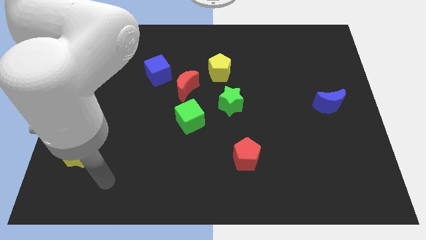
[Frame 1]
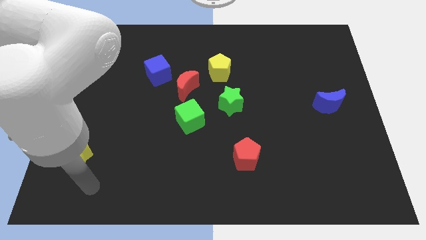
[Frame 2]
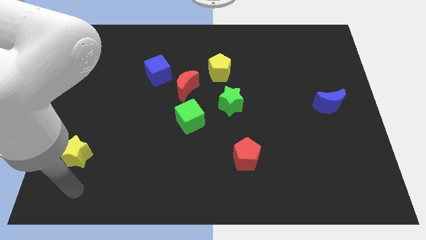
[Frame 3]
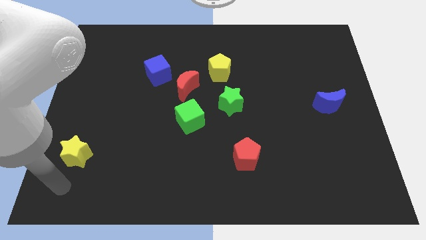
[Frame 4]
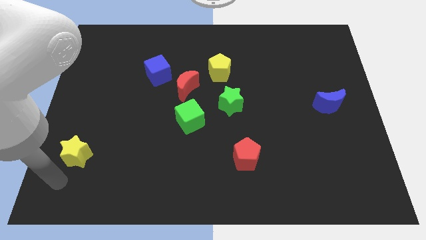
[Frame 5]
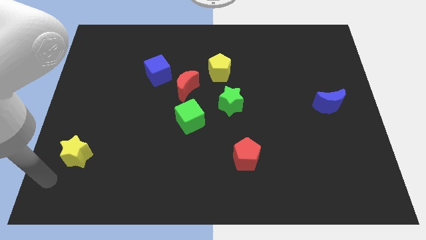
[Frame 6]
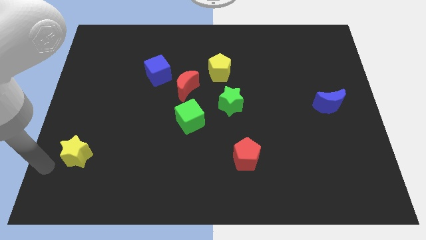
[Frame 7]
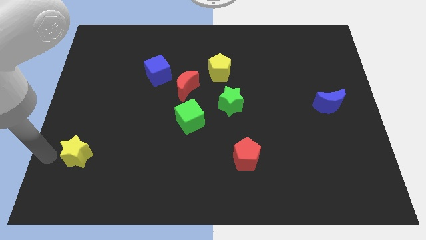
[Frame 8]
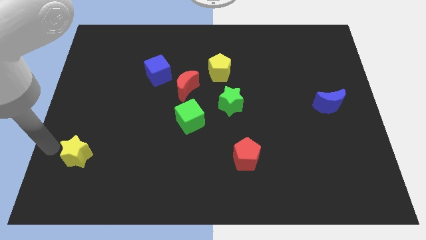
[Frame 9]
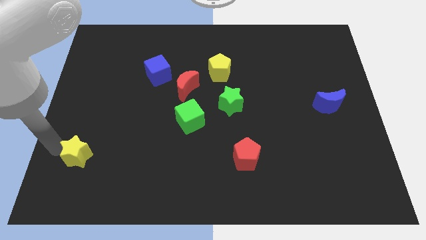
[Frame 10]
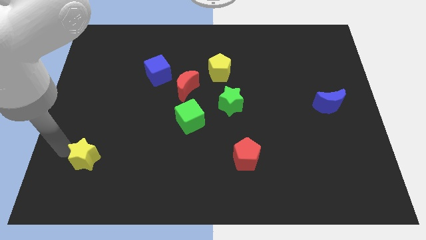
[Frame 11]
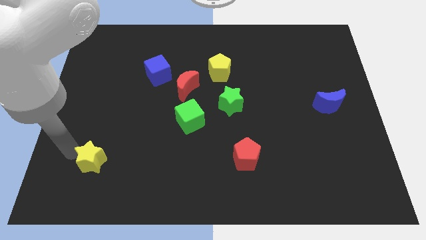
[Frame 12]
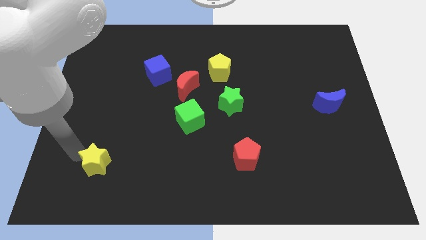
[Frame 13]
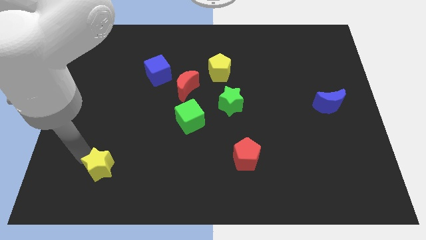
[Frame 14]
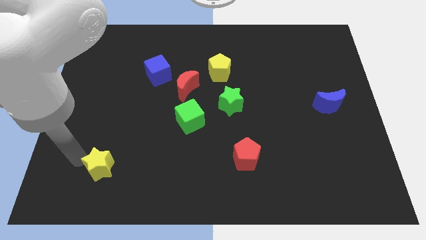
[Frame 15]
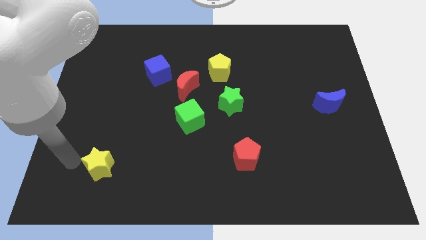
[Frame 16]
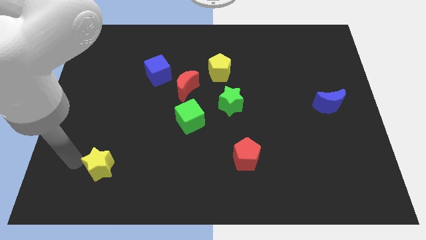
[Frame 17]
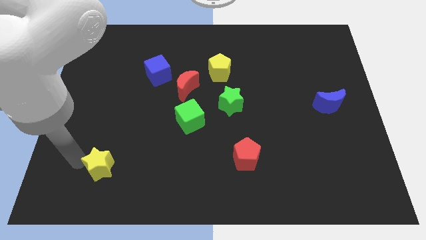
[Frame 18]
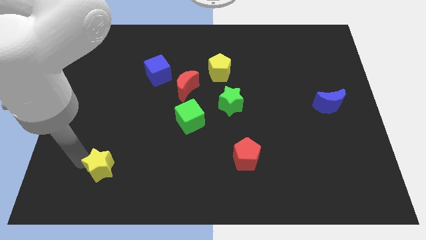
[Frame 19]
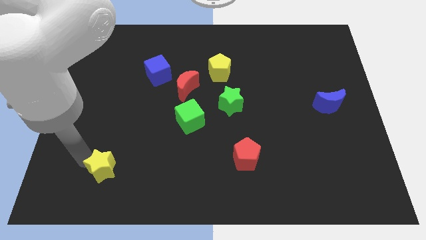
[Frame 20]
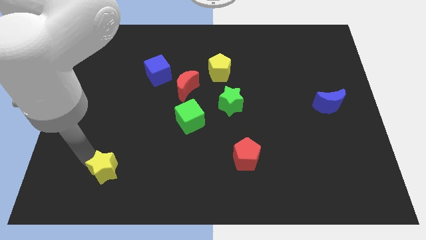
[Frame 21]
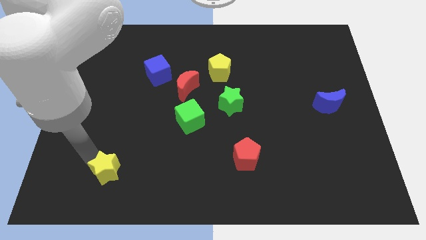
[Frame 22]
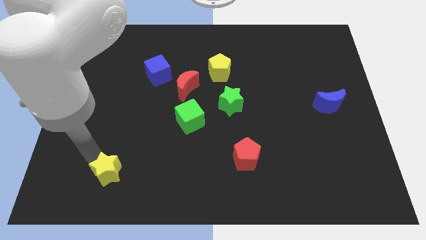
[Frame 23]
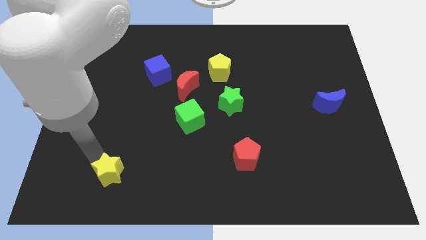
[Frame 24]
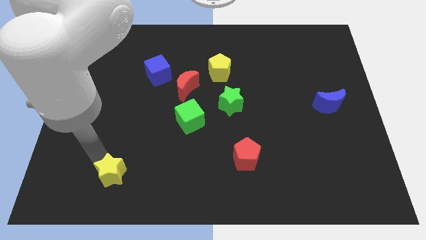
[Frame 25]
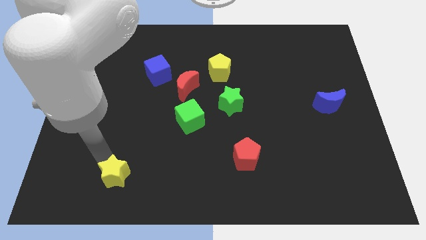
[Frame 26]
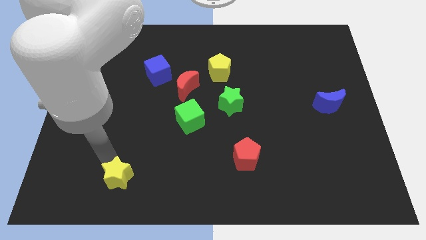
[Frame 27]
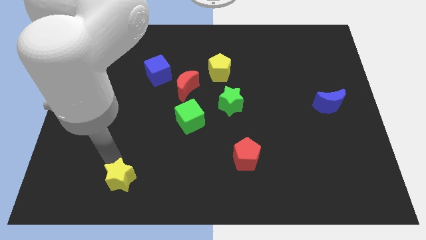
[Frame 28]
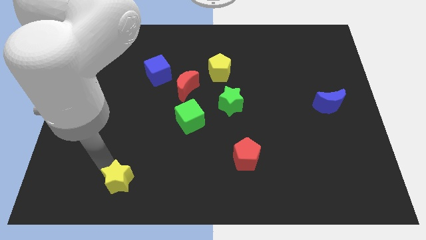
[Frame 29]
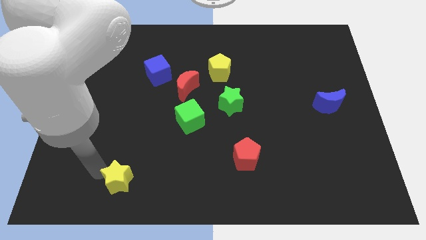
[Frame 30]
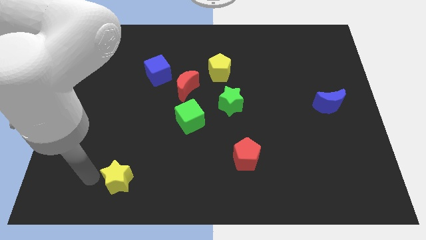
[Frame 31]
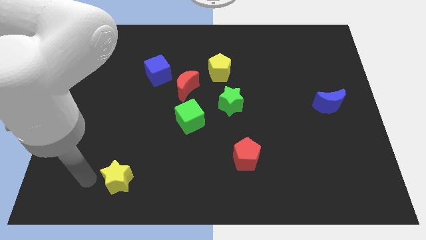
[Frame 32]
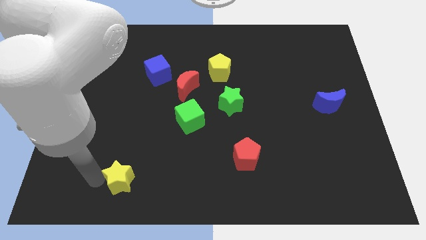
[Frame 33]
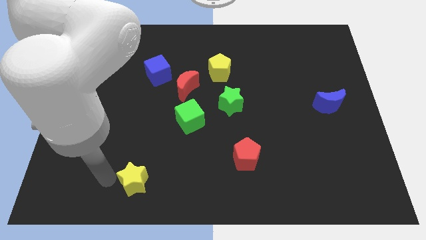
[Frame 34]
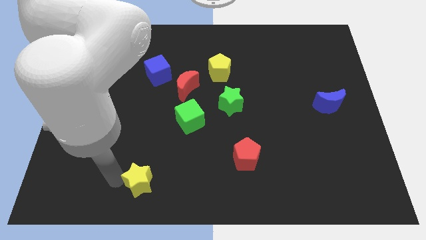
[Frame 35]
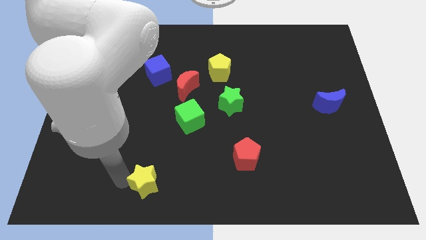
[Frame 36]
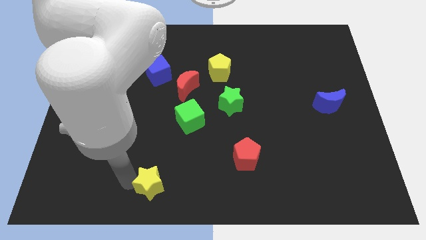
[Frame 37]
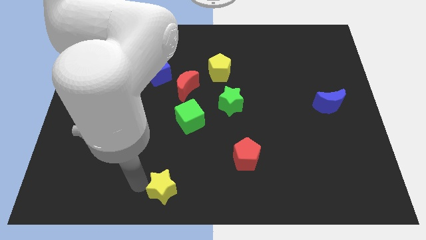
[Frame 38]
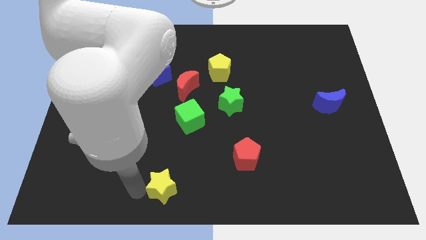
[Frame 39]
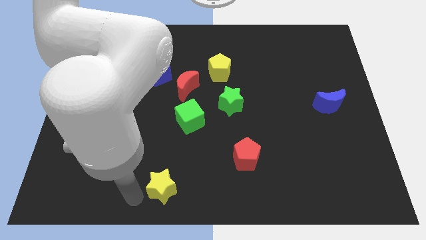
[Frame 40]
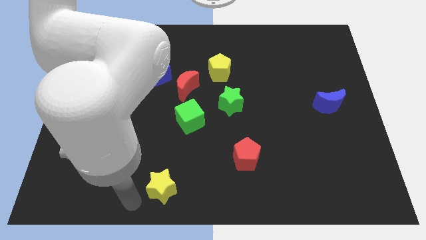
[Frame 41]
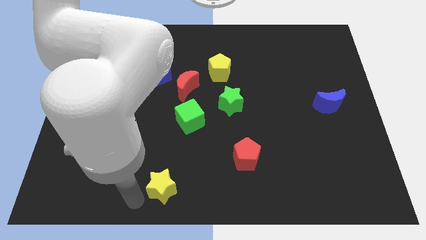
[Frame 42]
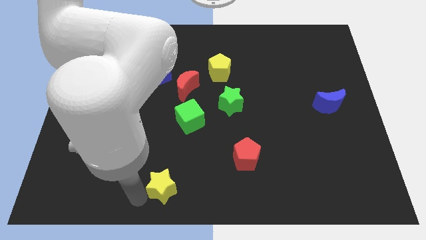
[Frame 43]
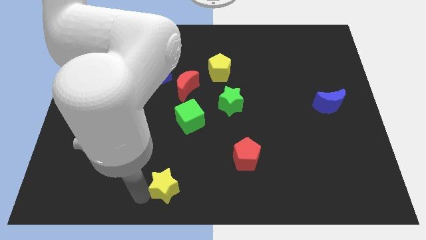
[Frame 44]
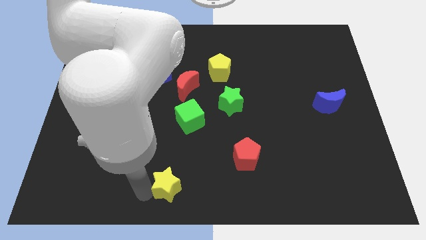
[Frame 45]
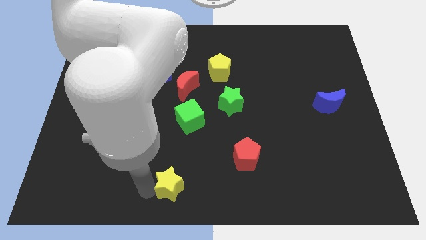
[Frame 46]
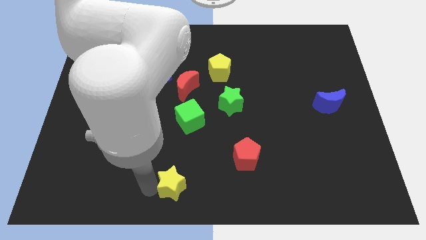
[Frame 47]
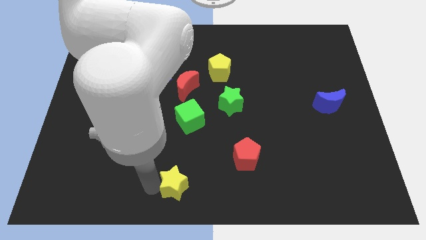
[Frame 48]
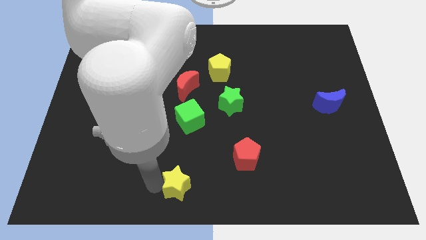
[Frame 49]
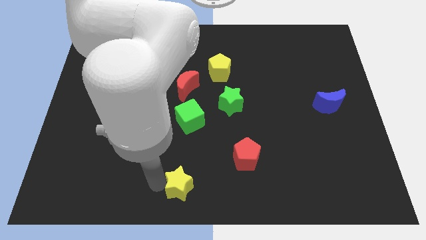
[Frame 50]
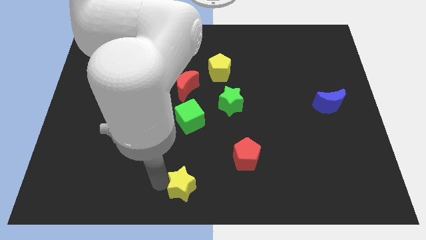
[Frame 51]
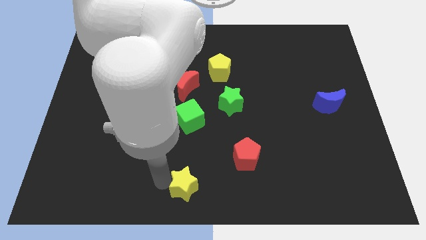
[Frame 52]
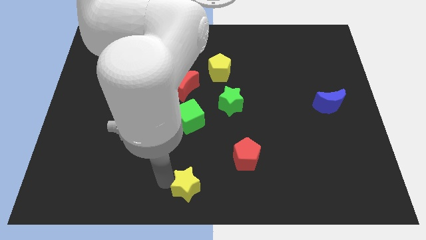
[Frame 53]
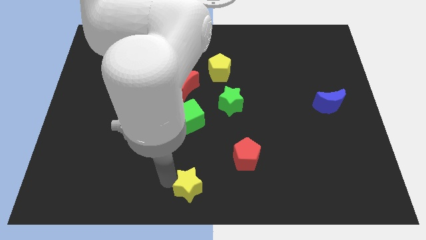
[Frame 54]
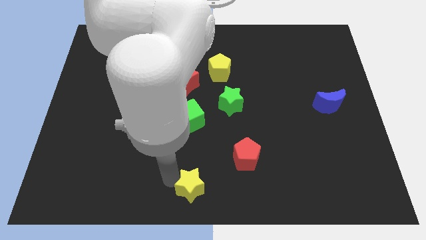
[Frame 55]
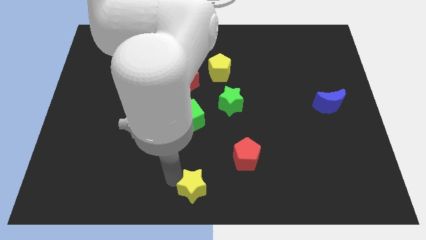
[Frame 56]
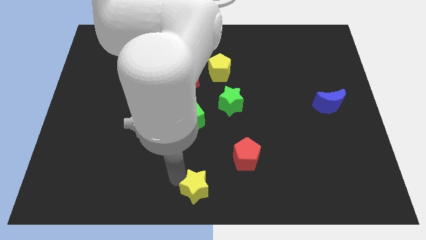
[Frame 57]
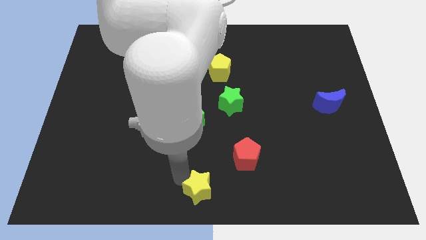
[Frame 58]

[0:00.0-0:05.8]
put the yellow star to the bottom left of the red pentagon

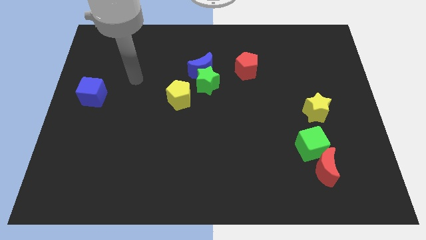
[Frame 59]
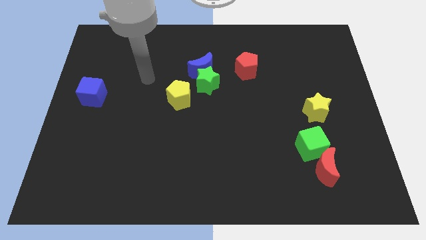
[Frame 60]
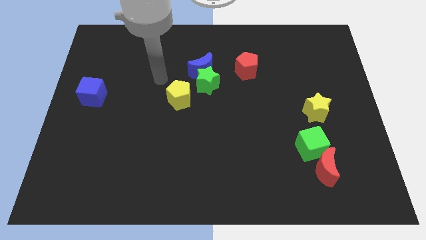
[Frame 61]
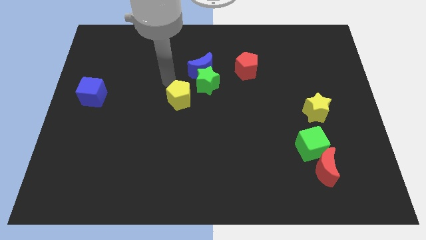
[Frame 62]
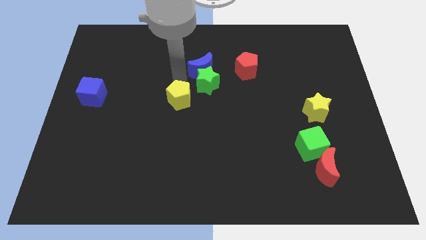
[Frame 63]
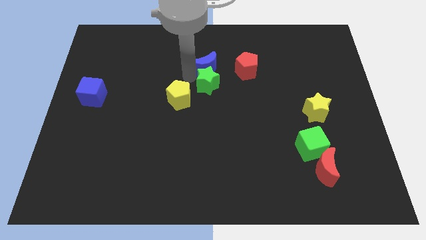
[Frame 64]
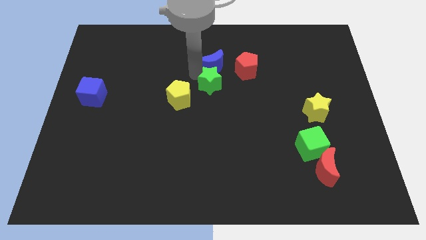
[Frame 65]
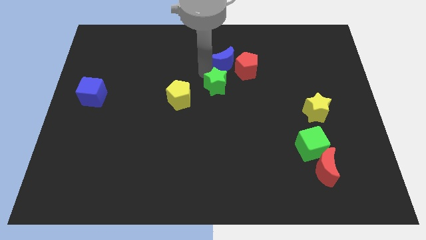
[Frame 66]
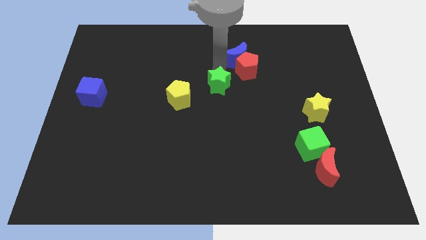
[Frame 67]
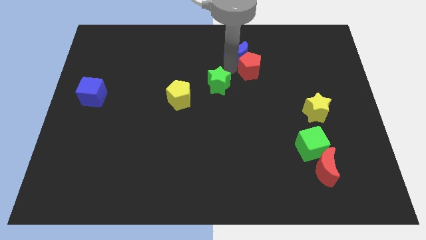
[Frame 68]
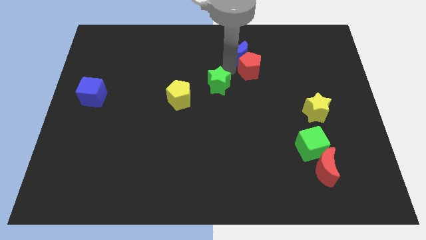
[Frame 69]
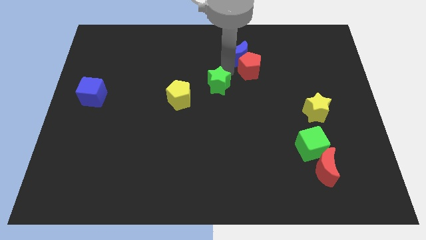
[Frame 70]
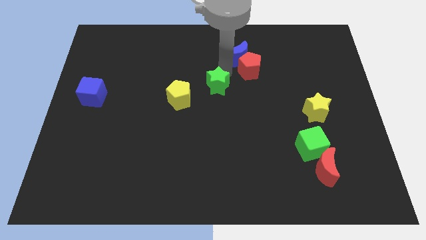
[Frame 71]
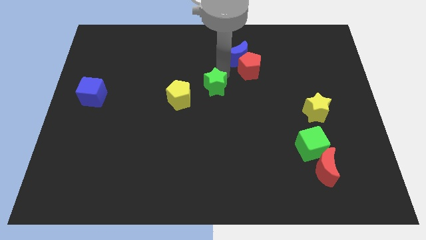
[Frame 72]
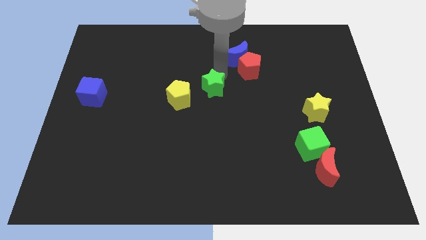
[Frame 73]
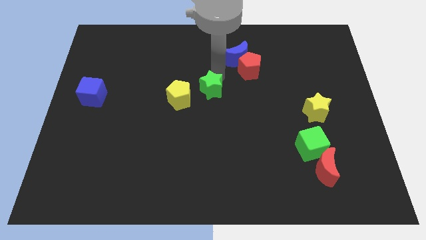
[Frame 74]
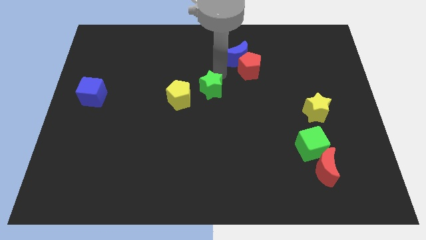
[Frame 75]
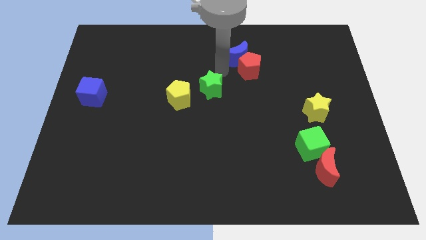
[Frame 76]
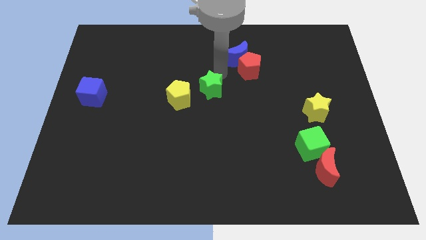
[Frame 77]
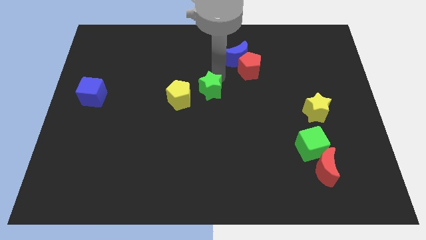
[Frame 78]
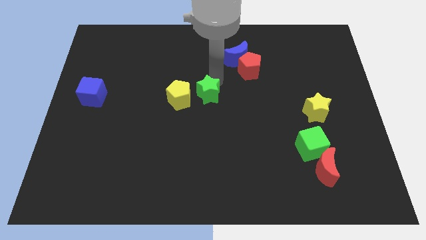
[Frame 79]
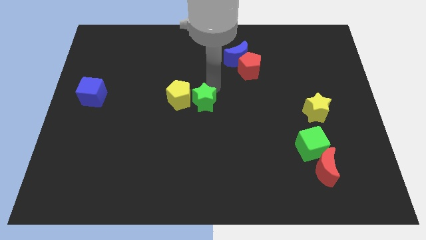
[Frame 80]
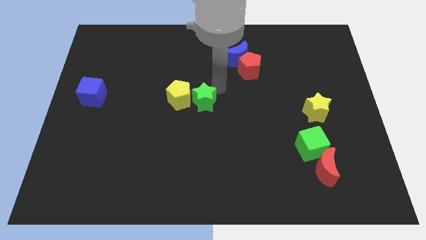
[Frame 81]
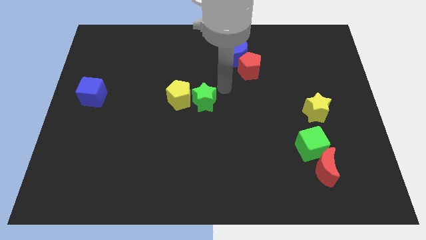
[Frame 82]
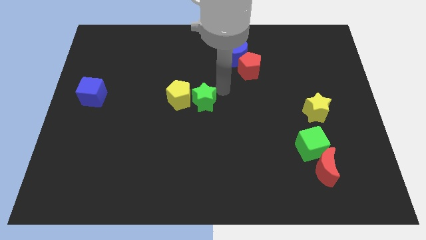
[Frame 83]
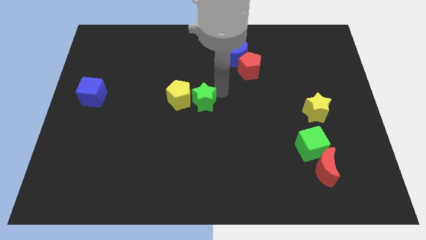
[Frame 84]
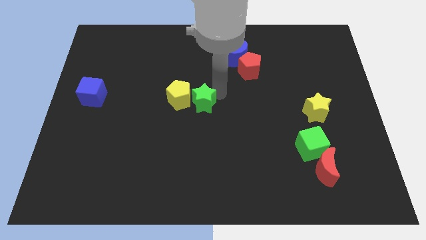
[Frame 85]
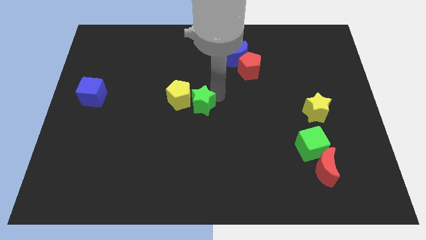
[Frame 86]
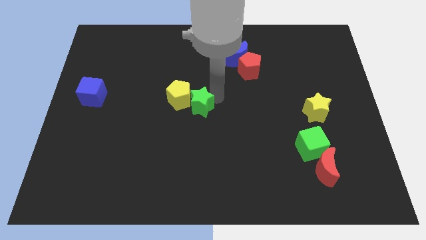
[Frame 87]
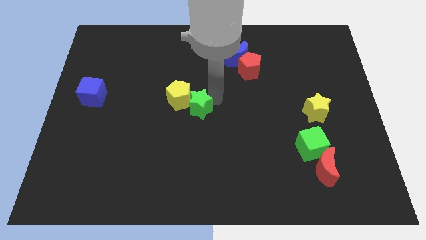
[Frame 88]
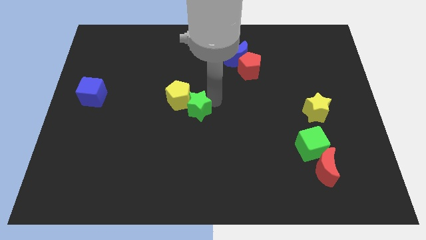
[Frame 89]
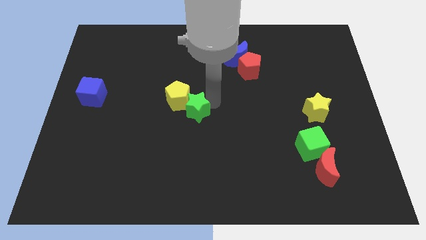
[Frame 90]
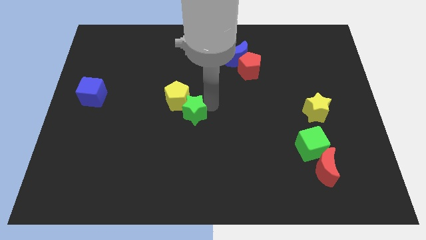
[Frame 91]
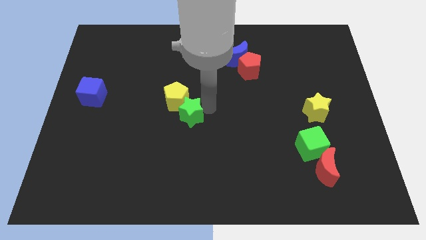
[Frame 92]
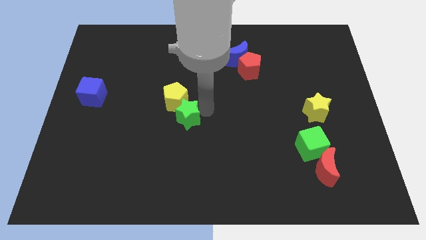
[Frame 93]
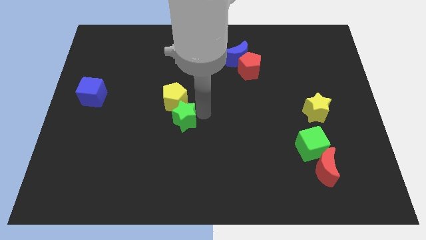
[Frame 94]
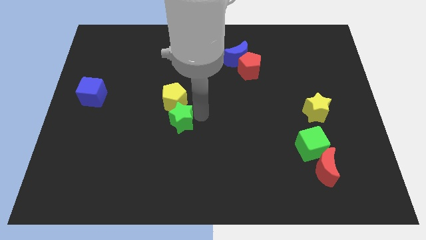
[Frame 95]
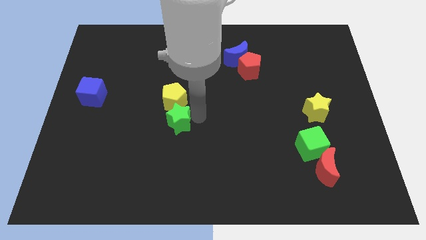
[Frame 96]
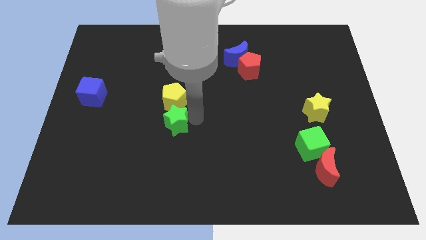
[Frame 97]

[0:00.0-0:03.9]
slide the green star diagonally down and to the left of the yellow pentagon
